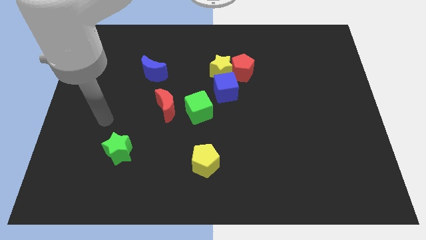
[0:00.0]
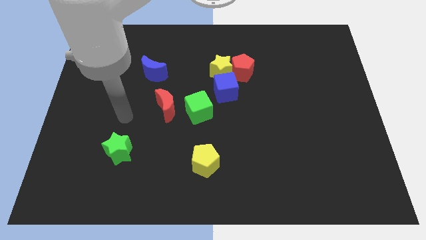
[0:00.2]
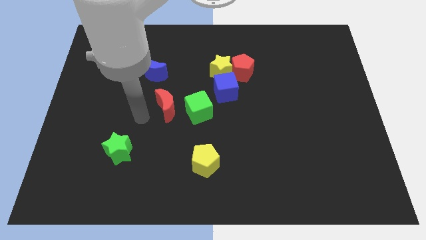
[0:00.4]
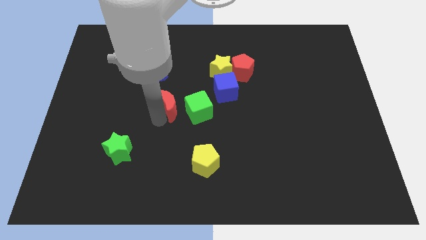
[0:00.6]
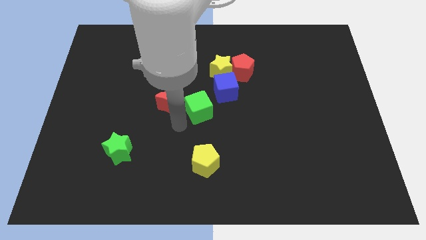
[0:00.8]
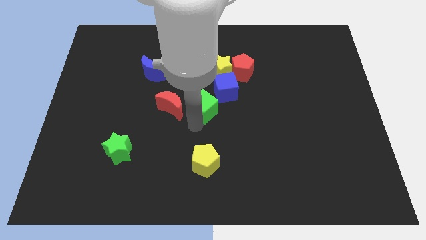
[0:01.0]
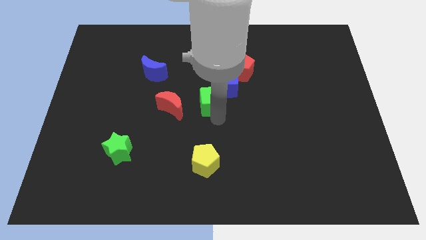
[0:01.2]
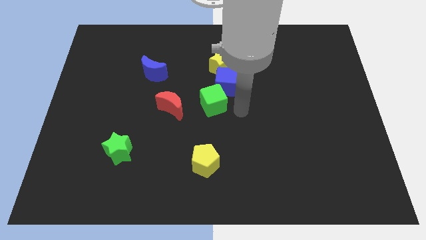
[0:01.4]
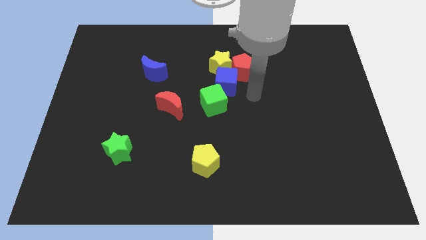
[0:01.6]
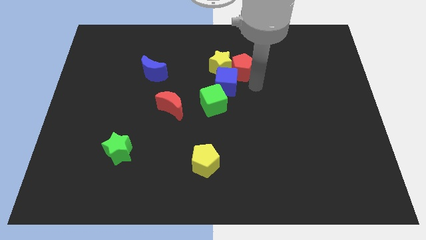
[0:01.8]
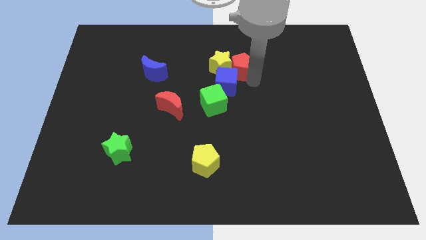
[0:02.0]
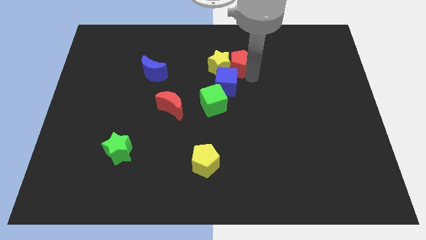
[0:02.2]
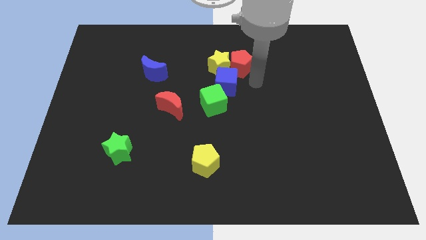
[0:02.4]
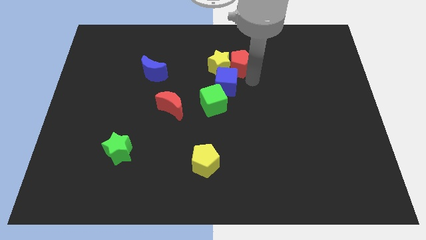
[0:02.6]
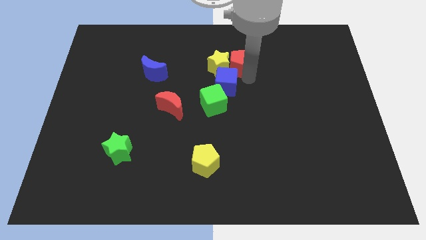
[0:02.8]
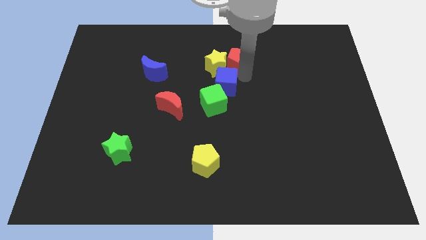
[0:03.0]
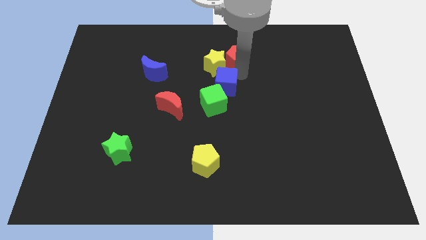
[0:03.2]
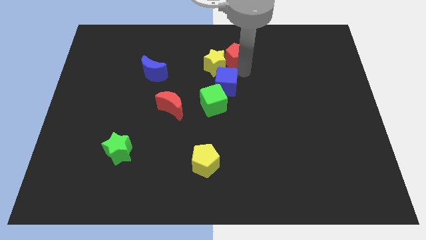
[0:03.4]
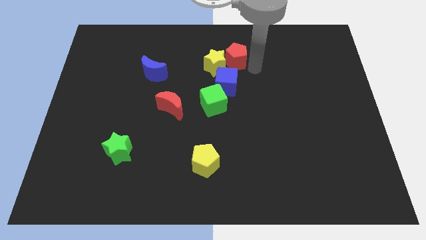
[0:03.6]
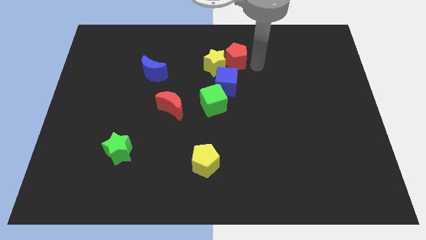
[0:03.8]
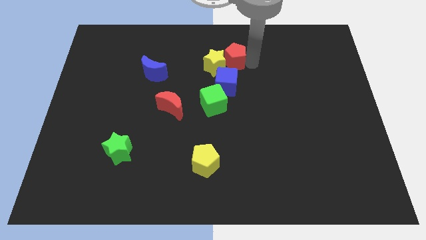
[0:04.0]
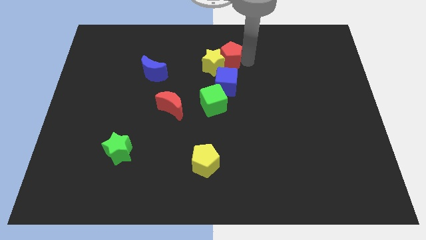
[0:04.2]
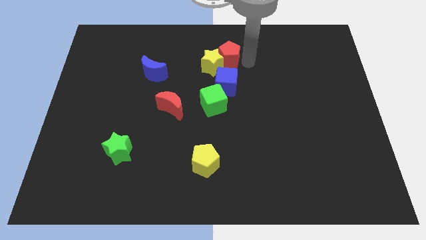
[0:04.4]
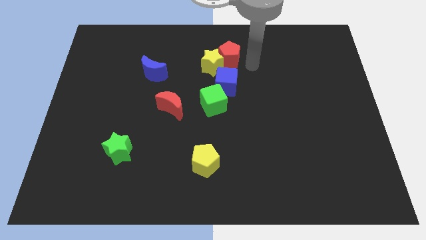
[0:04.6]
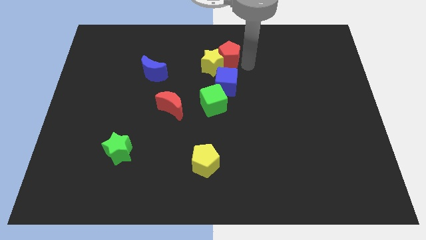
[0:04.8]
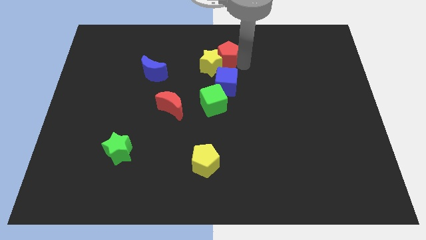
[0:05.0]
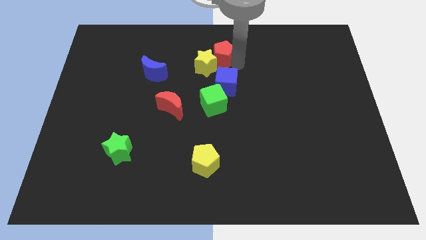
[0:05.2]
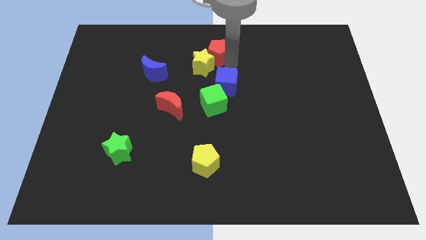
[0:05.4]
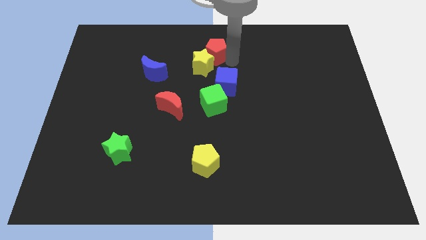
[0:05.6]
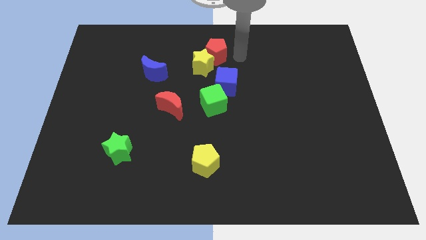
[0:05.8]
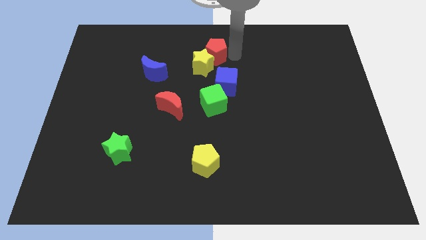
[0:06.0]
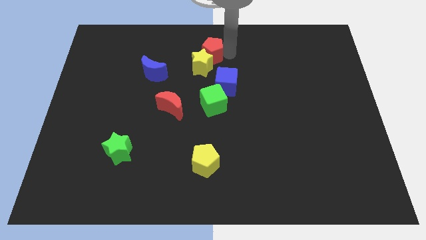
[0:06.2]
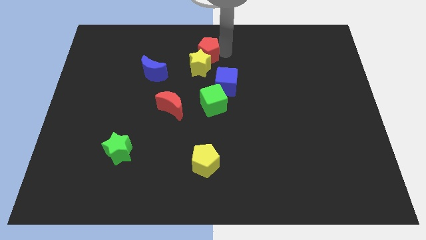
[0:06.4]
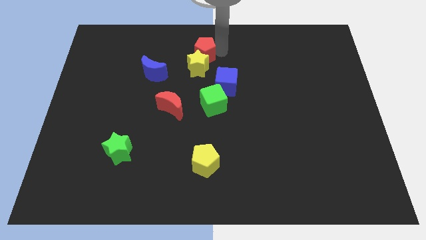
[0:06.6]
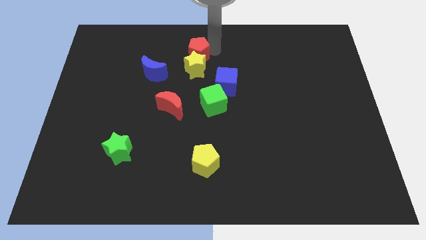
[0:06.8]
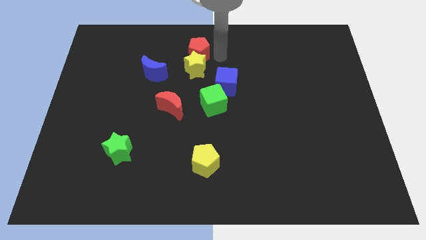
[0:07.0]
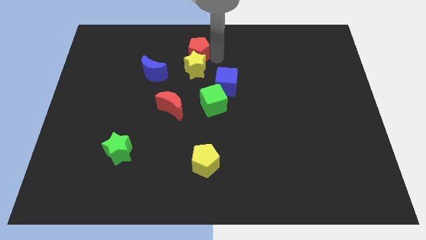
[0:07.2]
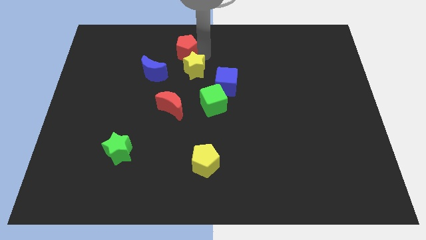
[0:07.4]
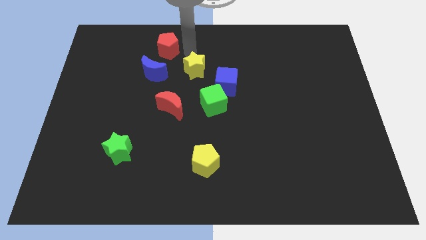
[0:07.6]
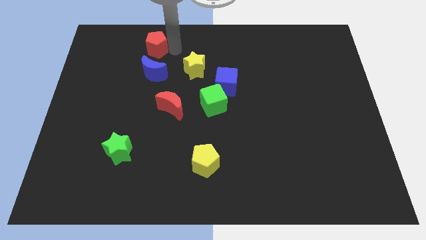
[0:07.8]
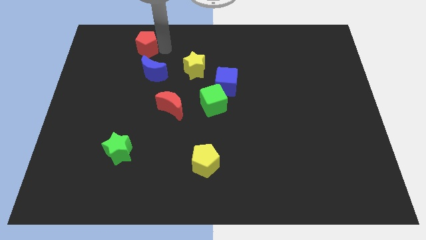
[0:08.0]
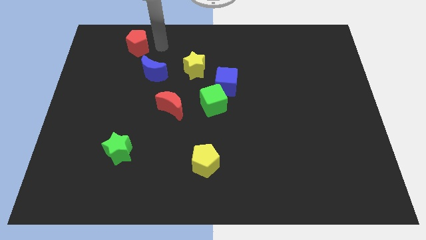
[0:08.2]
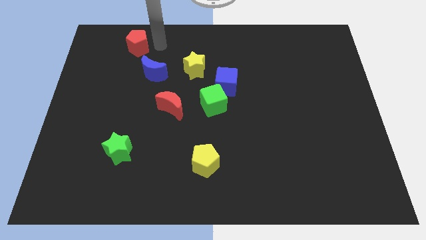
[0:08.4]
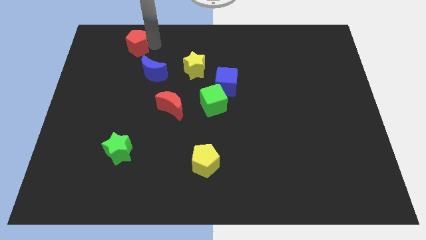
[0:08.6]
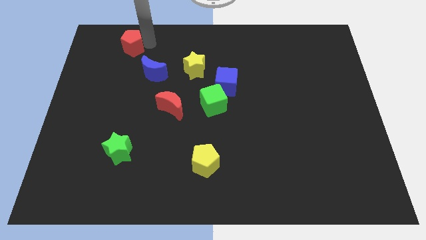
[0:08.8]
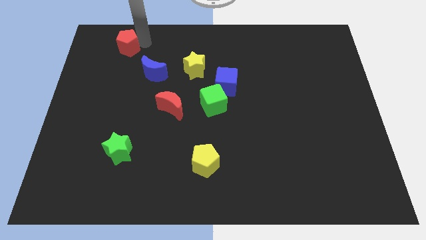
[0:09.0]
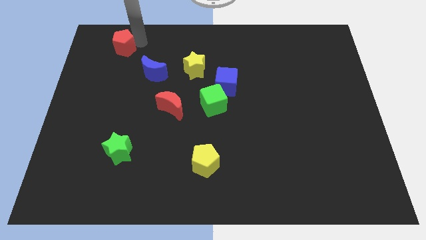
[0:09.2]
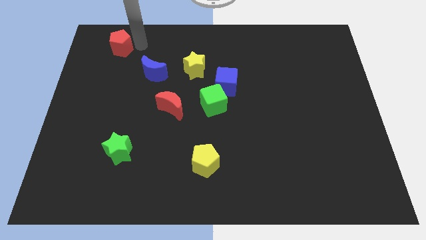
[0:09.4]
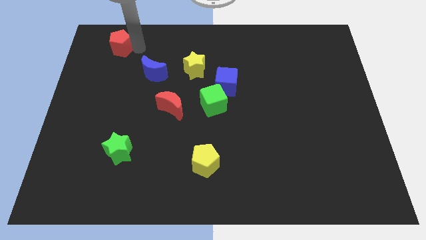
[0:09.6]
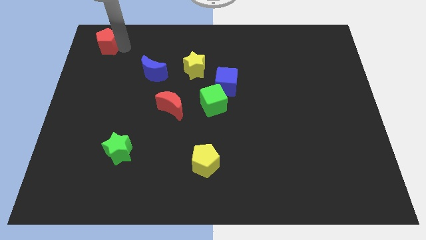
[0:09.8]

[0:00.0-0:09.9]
push the red pentagon to the upper left corner

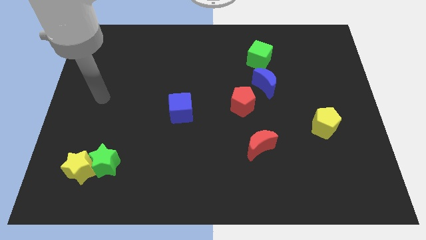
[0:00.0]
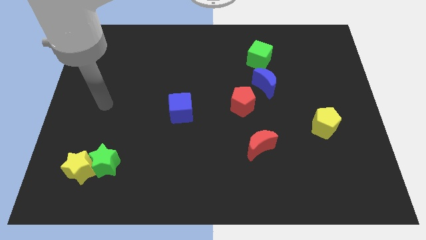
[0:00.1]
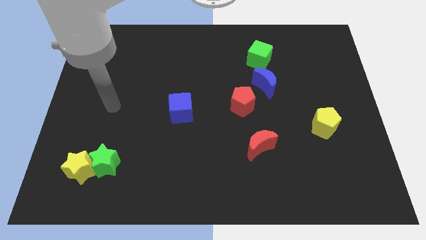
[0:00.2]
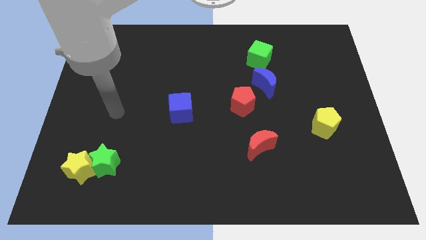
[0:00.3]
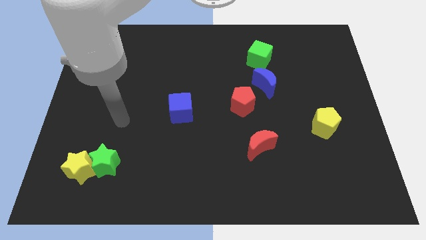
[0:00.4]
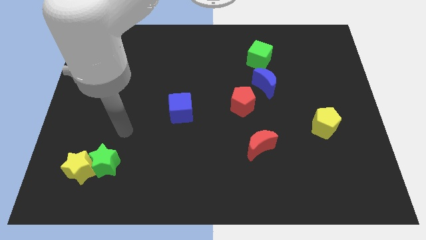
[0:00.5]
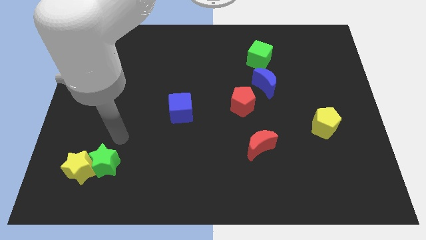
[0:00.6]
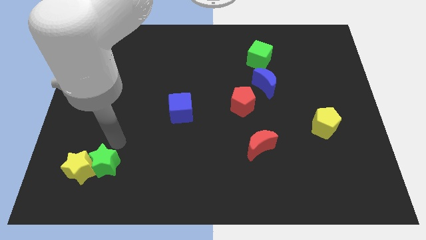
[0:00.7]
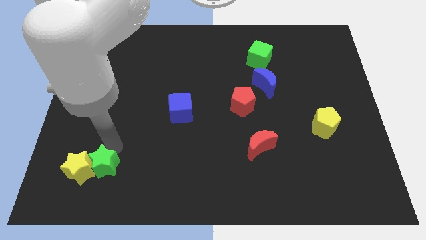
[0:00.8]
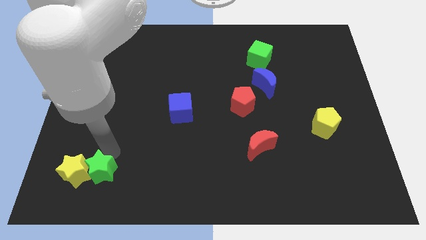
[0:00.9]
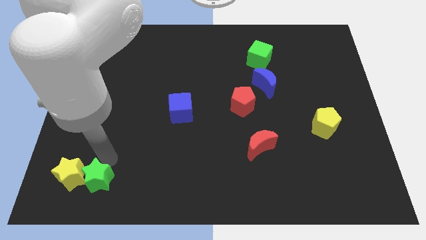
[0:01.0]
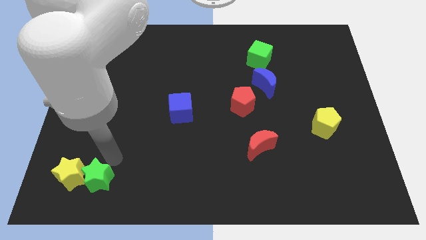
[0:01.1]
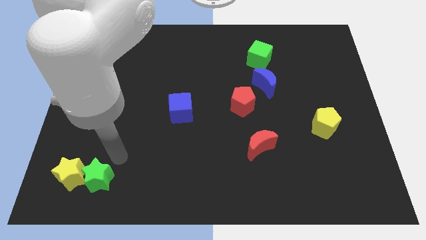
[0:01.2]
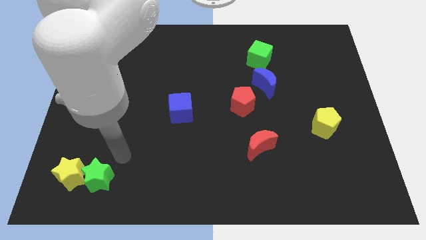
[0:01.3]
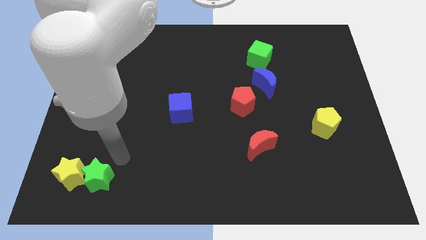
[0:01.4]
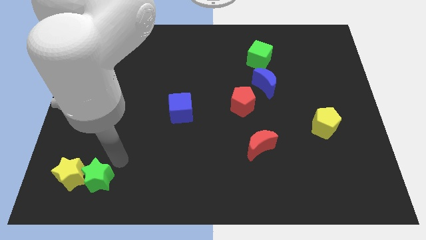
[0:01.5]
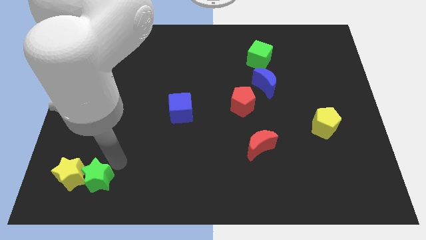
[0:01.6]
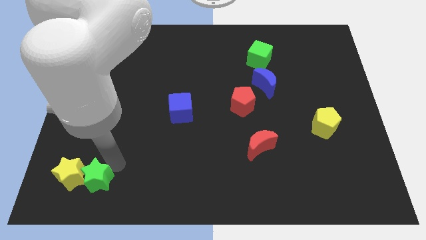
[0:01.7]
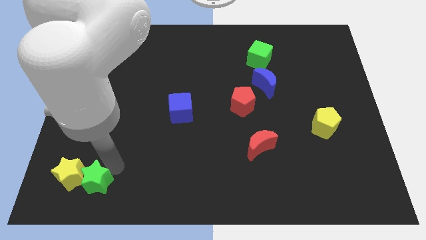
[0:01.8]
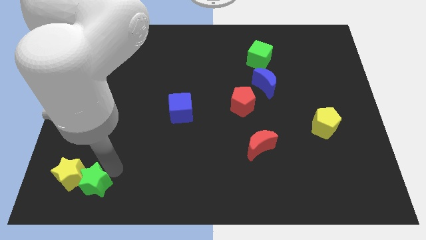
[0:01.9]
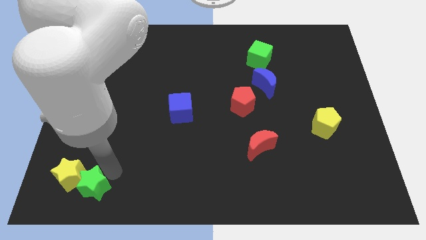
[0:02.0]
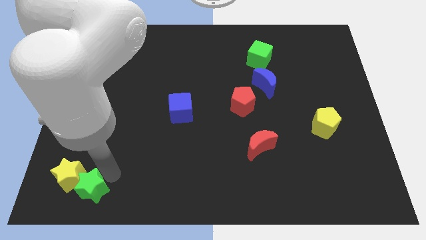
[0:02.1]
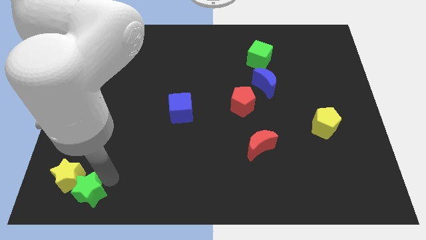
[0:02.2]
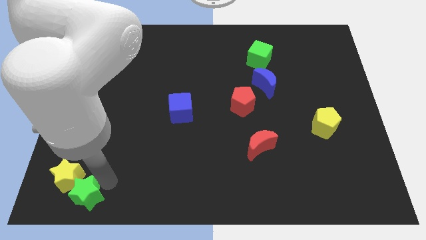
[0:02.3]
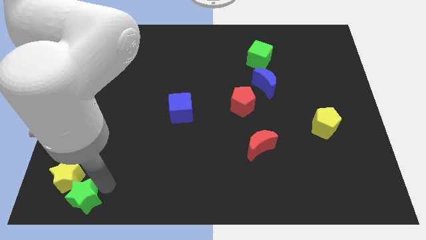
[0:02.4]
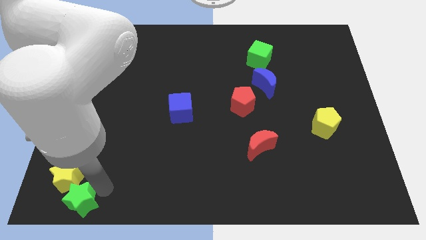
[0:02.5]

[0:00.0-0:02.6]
push the green star to the bottom left corner
